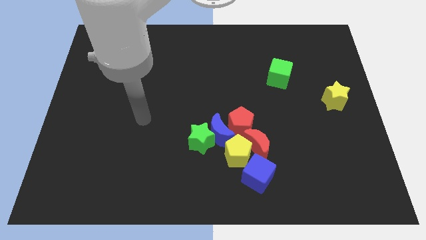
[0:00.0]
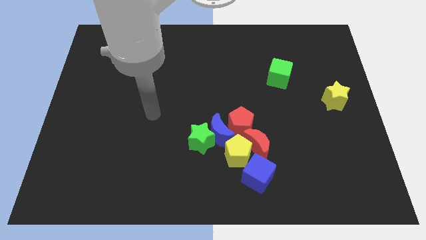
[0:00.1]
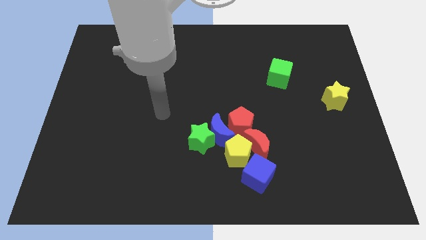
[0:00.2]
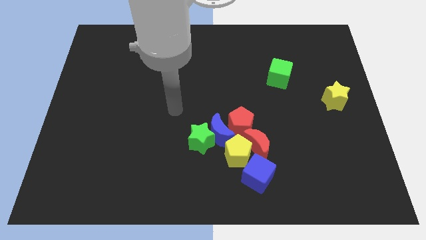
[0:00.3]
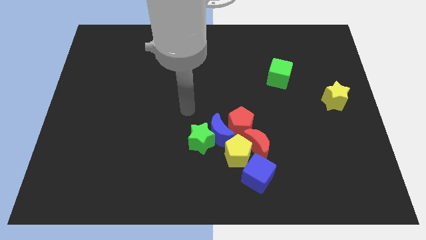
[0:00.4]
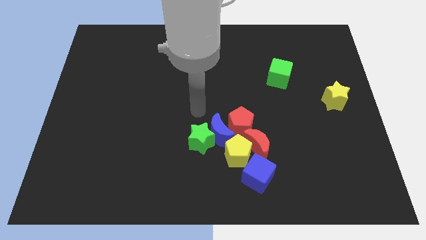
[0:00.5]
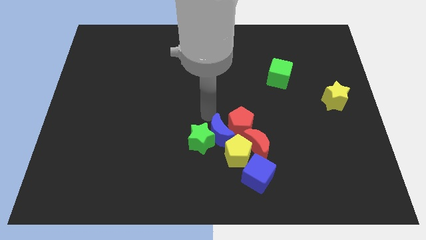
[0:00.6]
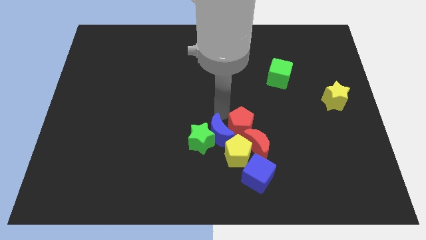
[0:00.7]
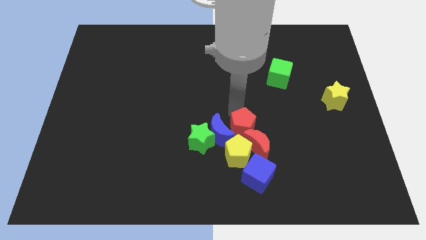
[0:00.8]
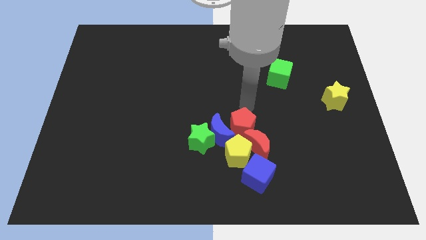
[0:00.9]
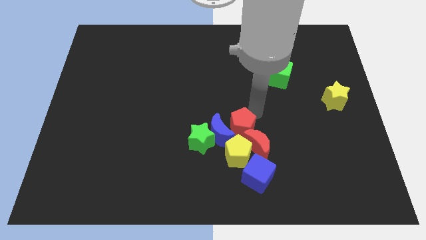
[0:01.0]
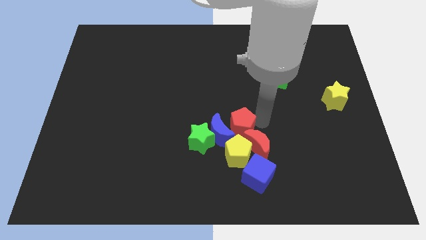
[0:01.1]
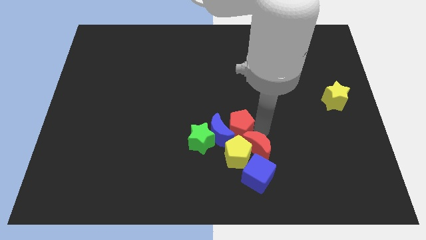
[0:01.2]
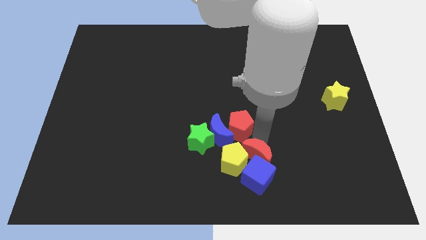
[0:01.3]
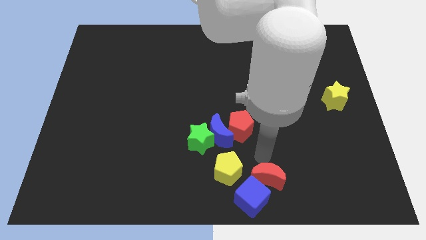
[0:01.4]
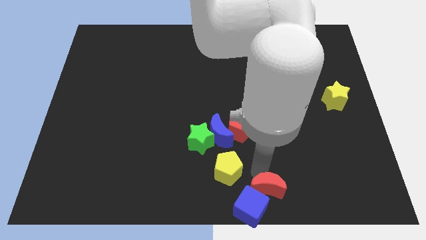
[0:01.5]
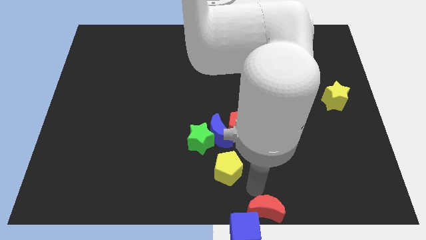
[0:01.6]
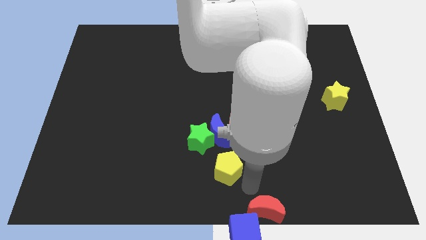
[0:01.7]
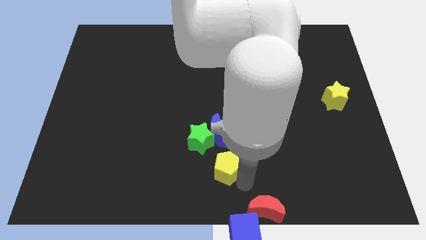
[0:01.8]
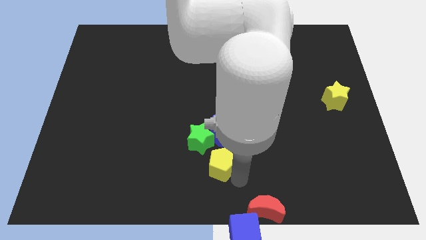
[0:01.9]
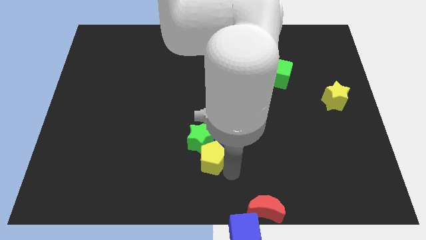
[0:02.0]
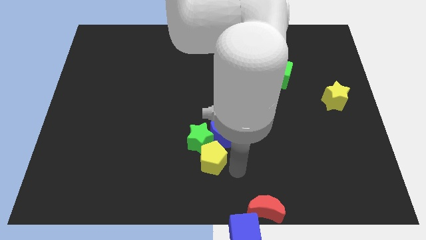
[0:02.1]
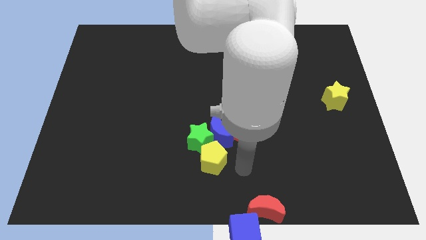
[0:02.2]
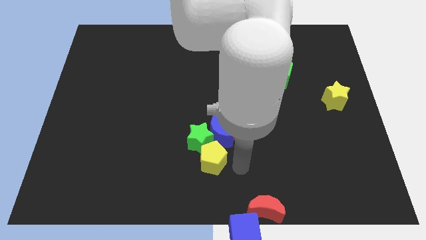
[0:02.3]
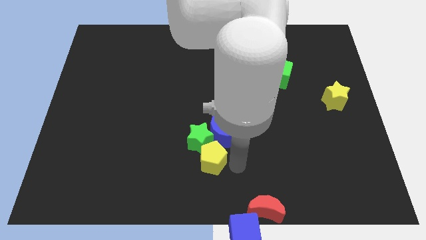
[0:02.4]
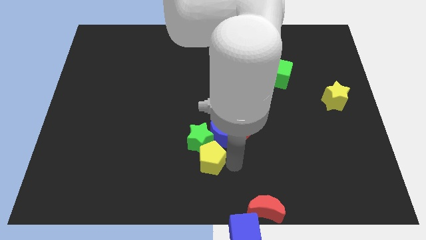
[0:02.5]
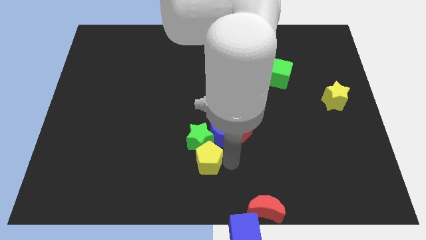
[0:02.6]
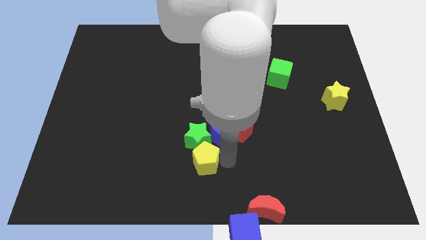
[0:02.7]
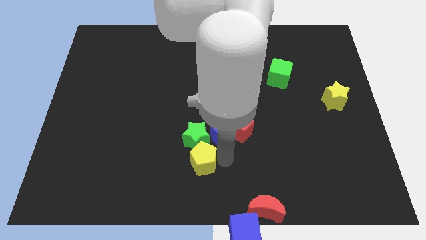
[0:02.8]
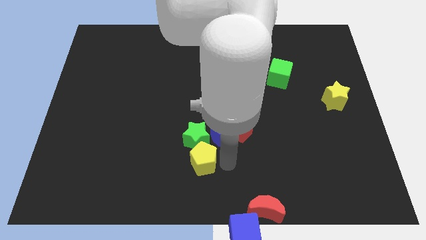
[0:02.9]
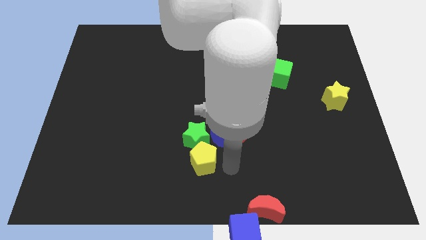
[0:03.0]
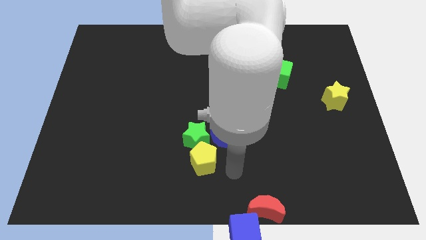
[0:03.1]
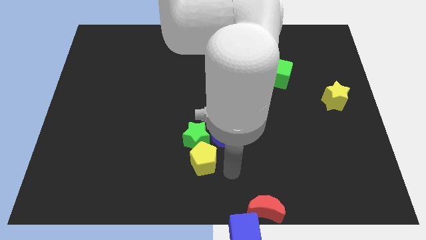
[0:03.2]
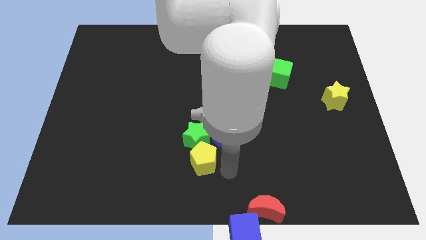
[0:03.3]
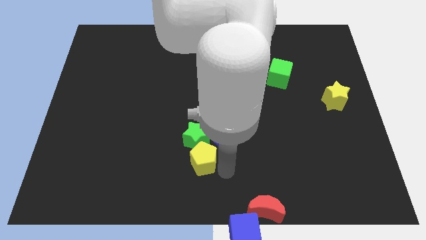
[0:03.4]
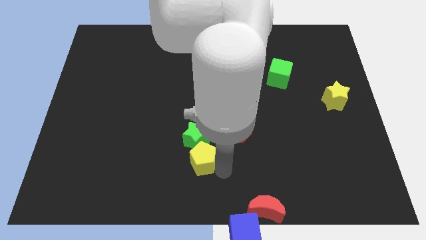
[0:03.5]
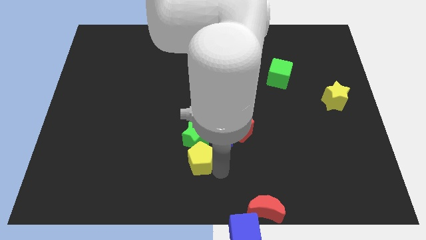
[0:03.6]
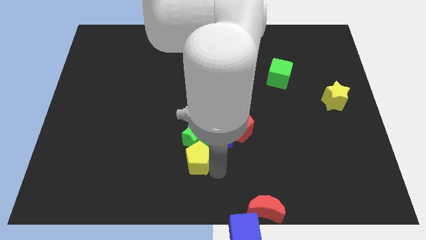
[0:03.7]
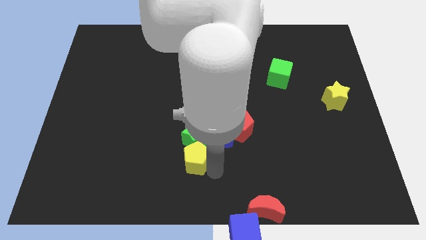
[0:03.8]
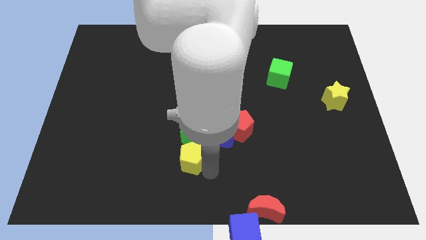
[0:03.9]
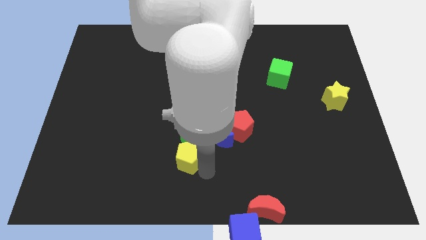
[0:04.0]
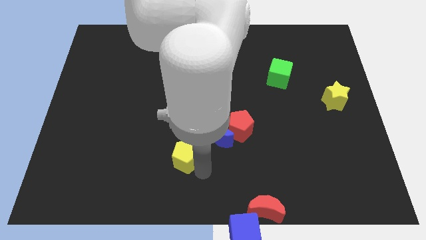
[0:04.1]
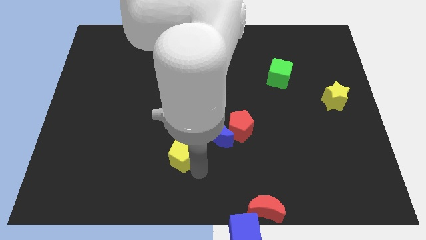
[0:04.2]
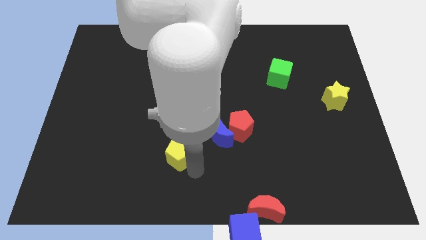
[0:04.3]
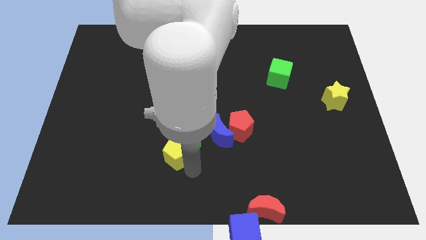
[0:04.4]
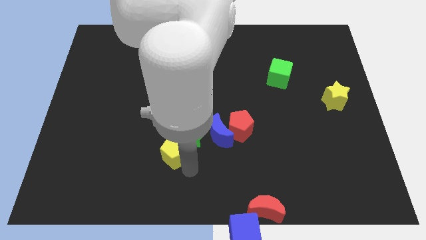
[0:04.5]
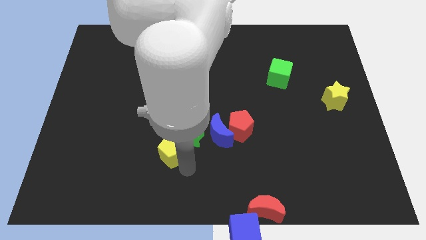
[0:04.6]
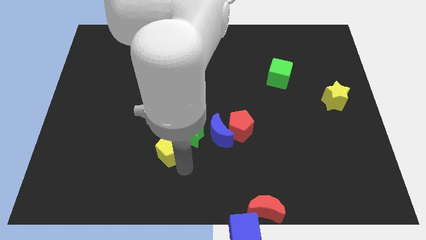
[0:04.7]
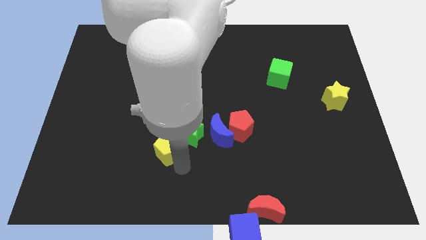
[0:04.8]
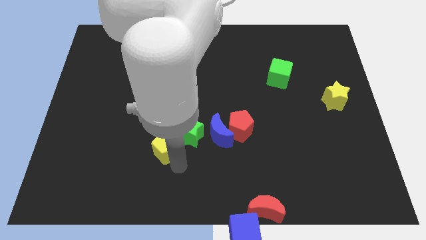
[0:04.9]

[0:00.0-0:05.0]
slightly move the yellow pentagon diagonally upwards and left

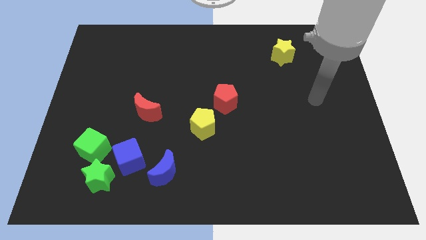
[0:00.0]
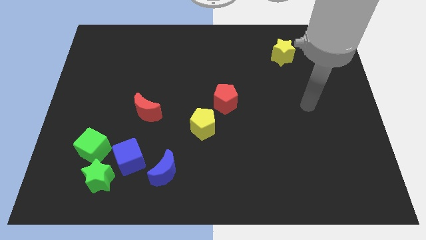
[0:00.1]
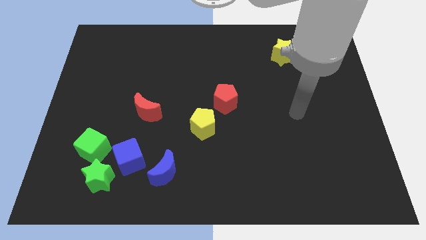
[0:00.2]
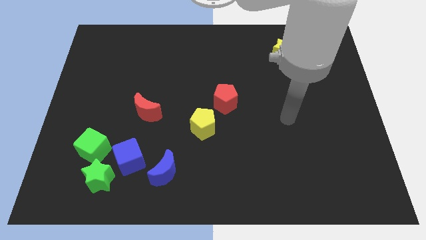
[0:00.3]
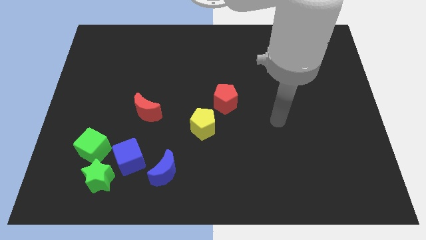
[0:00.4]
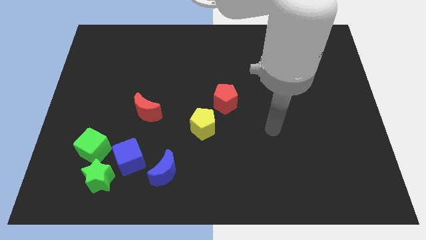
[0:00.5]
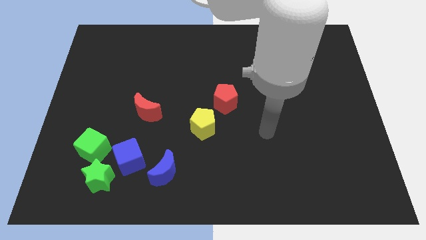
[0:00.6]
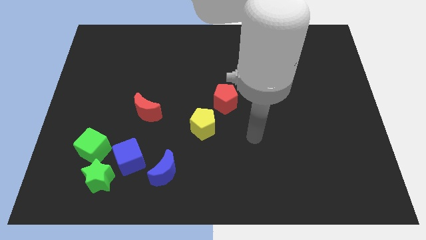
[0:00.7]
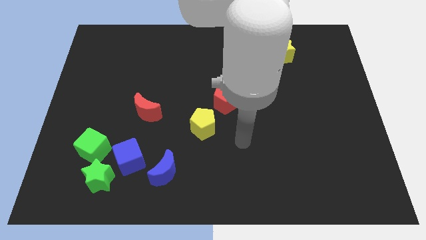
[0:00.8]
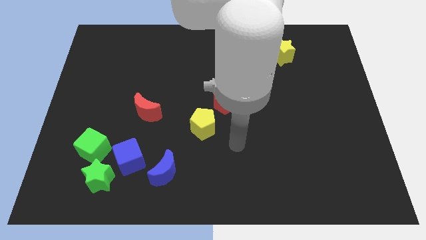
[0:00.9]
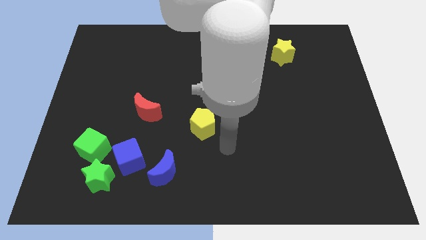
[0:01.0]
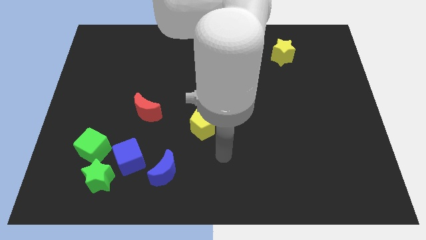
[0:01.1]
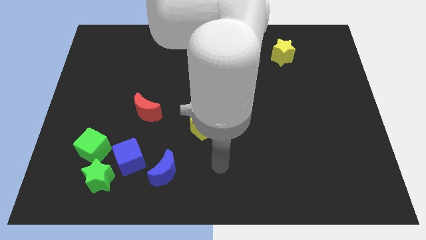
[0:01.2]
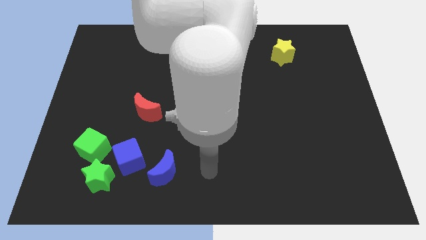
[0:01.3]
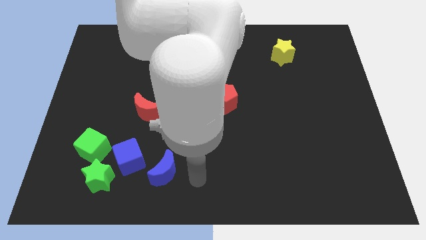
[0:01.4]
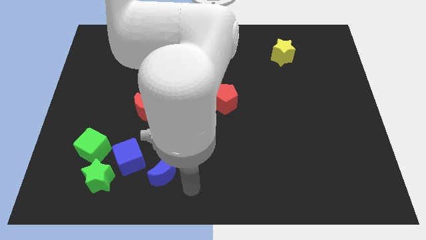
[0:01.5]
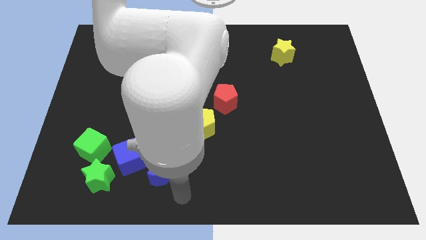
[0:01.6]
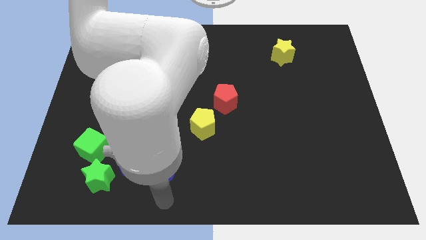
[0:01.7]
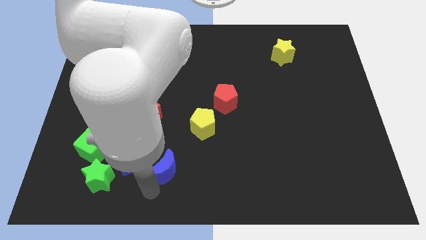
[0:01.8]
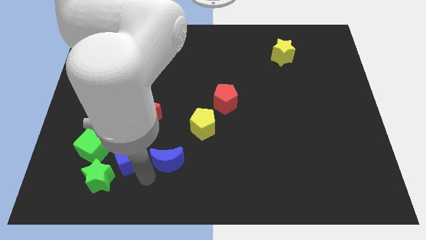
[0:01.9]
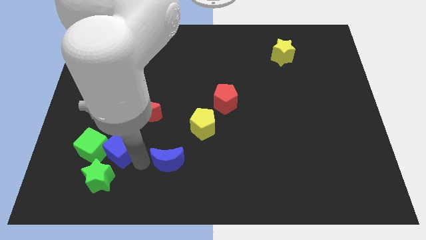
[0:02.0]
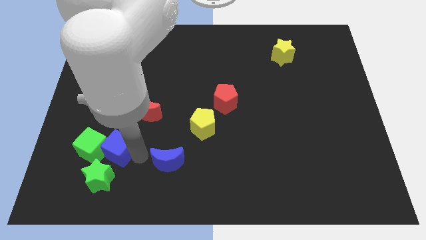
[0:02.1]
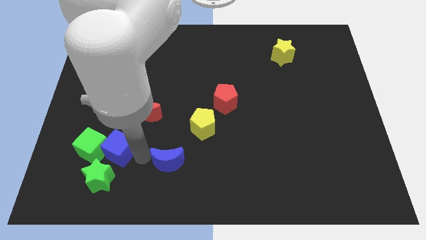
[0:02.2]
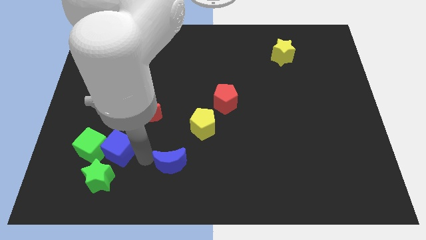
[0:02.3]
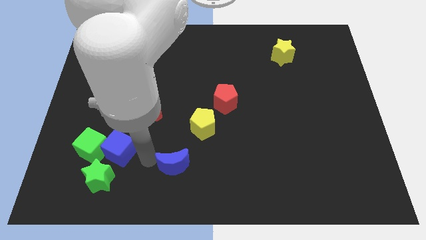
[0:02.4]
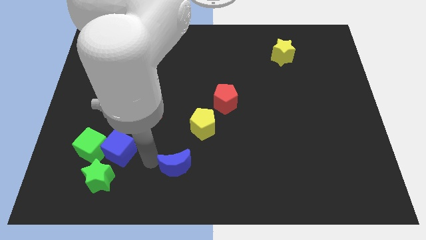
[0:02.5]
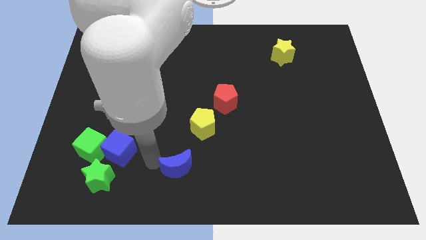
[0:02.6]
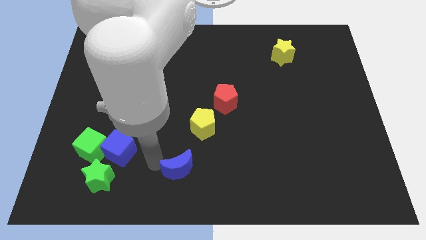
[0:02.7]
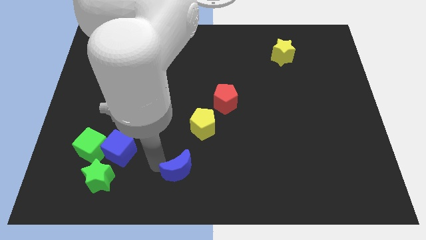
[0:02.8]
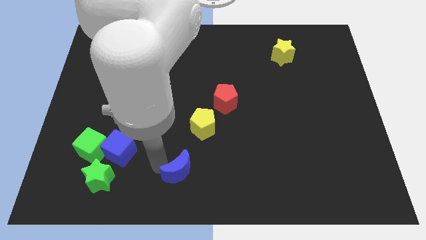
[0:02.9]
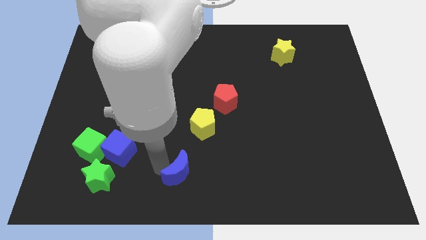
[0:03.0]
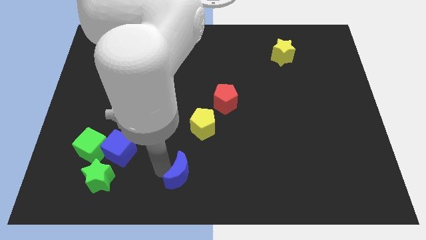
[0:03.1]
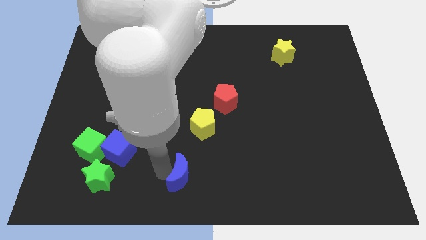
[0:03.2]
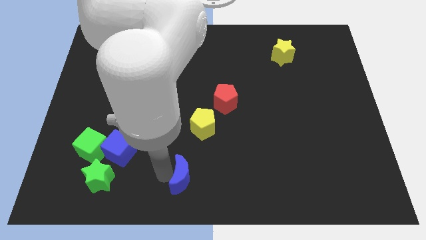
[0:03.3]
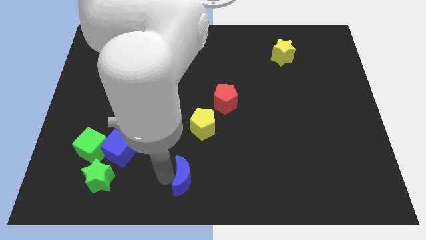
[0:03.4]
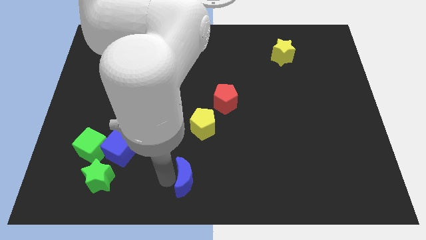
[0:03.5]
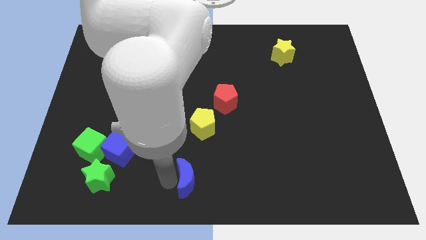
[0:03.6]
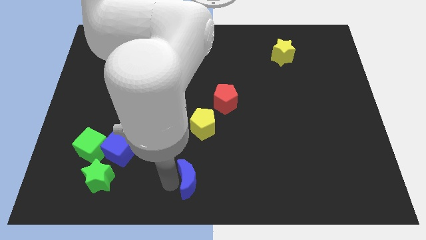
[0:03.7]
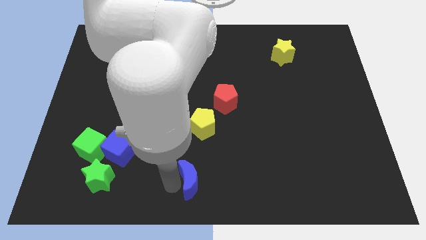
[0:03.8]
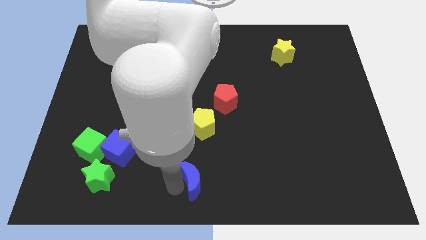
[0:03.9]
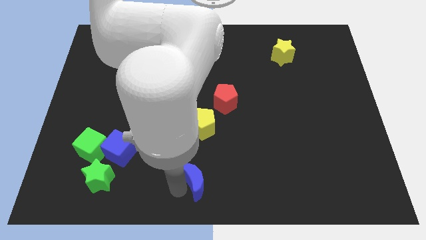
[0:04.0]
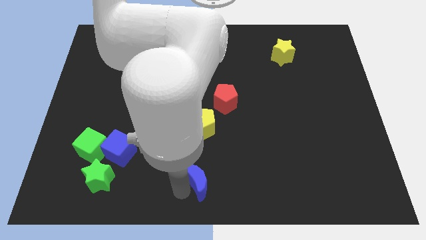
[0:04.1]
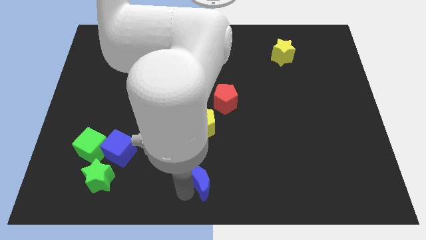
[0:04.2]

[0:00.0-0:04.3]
slide the blue moon right somewhat
